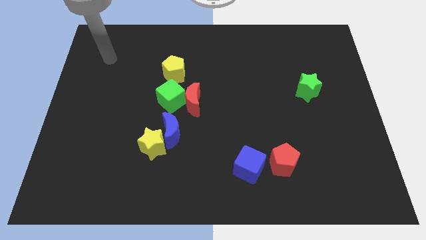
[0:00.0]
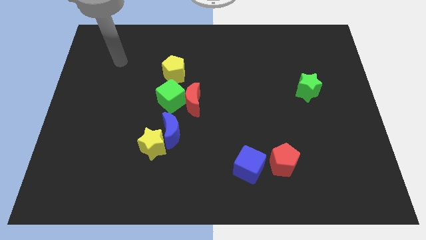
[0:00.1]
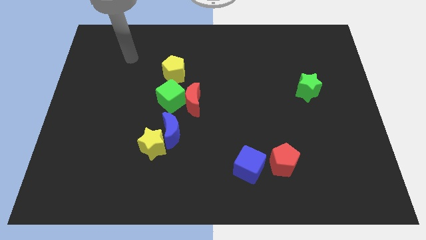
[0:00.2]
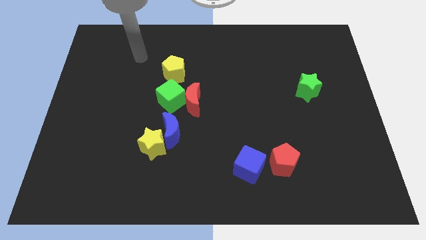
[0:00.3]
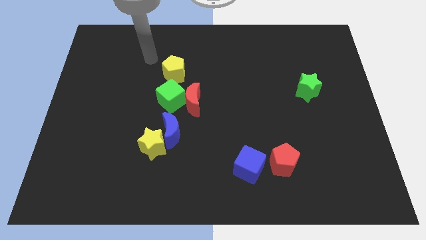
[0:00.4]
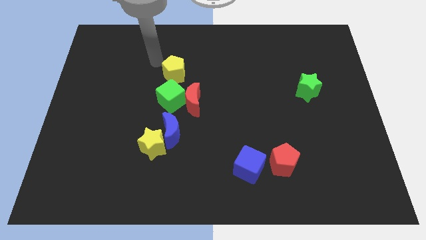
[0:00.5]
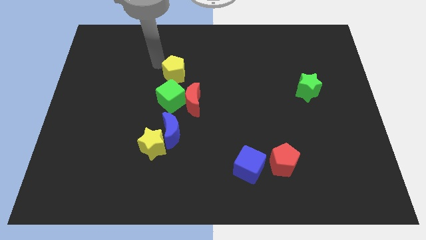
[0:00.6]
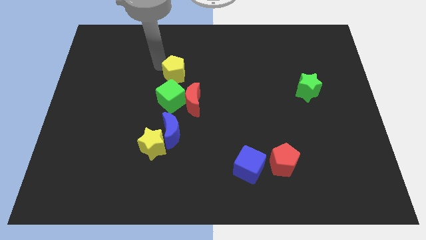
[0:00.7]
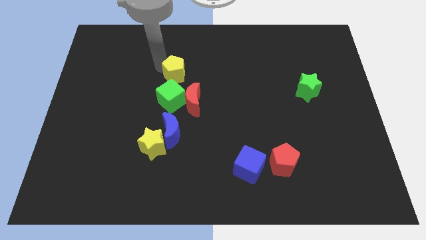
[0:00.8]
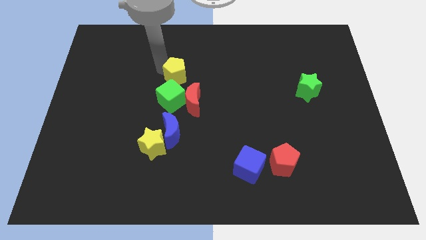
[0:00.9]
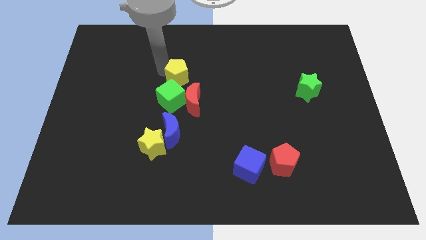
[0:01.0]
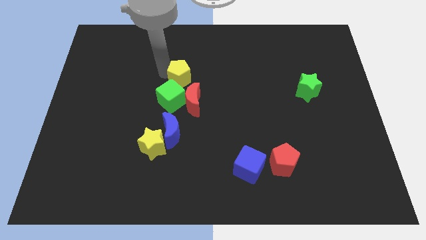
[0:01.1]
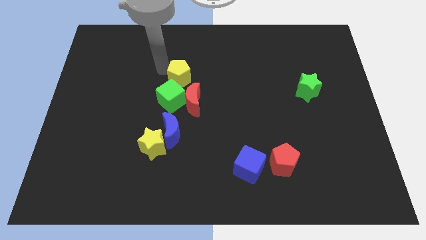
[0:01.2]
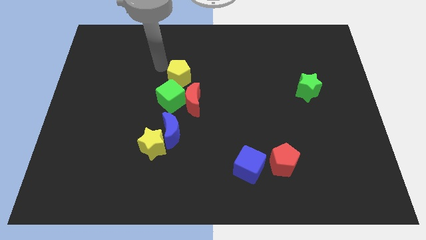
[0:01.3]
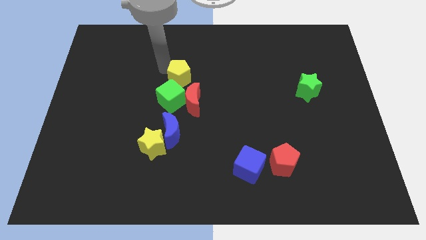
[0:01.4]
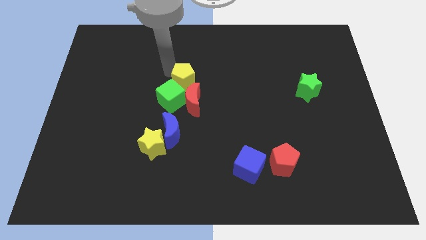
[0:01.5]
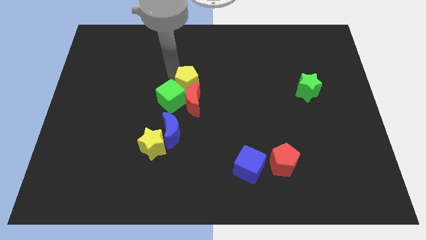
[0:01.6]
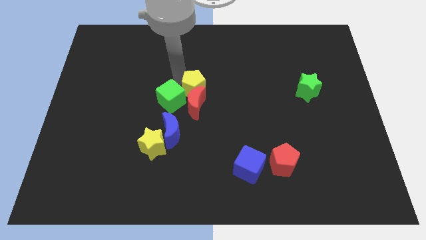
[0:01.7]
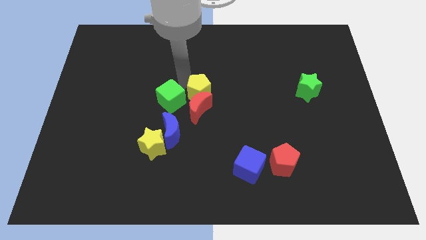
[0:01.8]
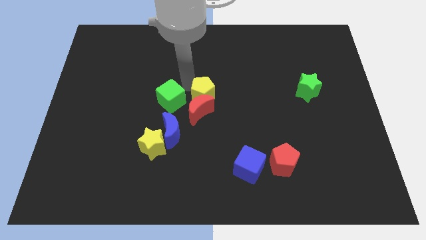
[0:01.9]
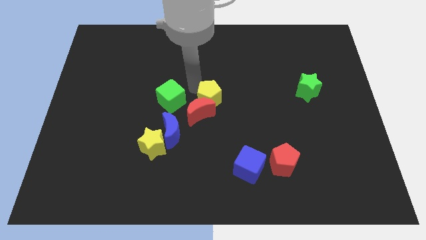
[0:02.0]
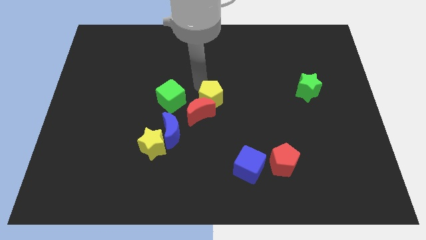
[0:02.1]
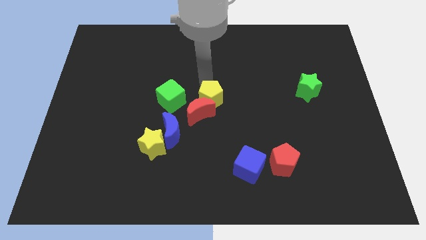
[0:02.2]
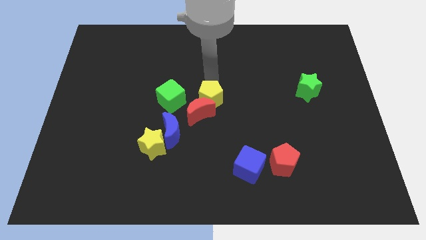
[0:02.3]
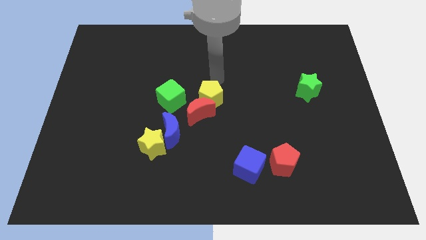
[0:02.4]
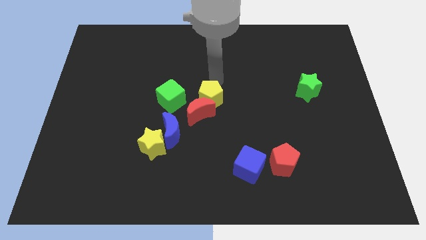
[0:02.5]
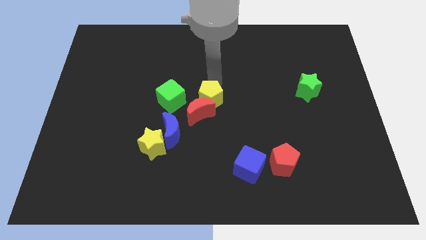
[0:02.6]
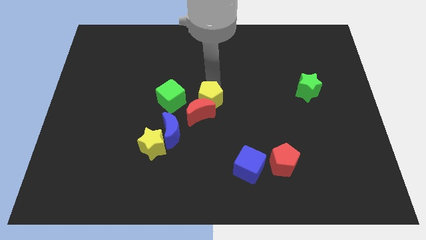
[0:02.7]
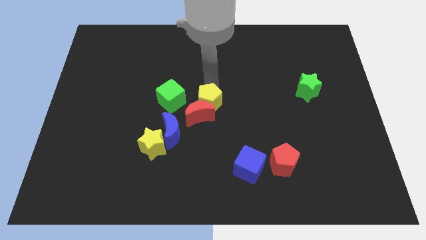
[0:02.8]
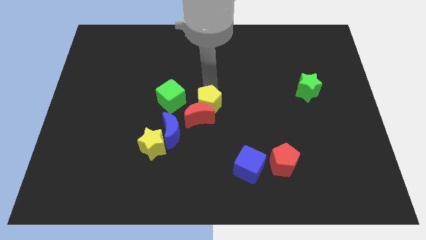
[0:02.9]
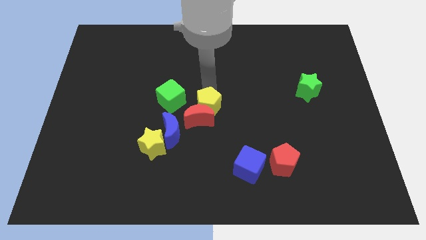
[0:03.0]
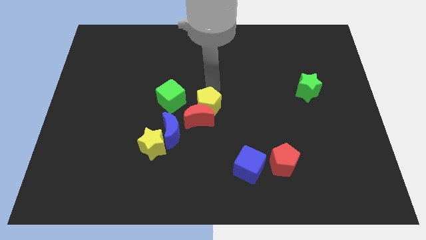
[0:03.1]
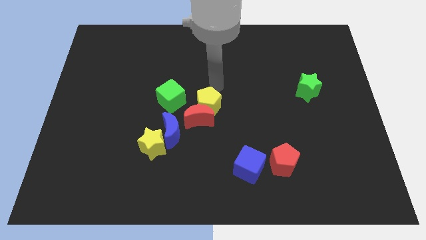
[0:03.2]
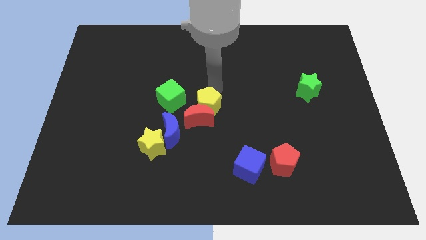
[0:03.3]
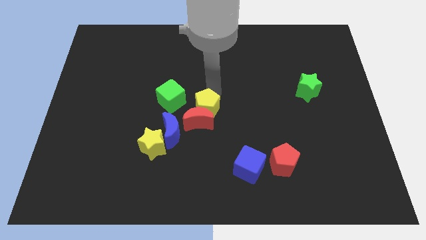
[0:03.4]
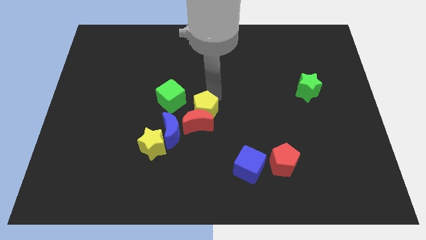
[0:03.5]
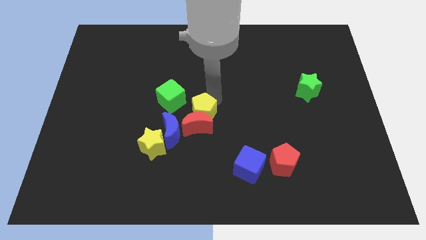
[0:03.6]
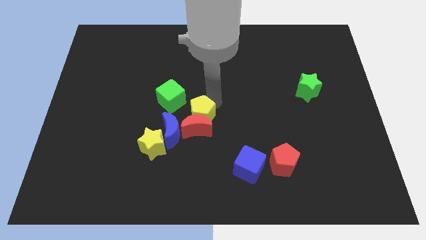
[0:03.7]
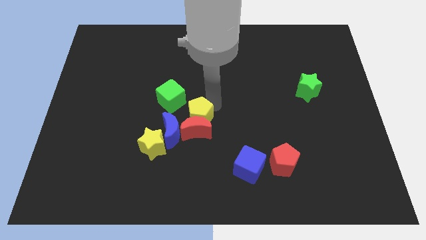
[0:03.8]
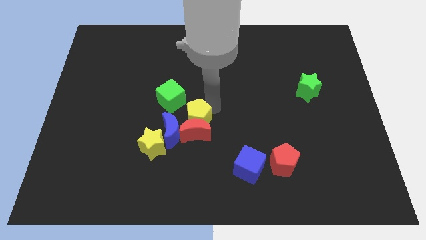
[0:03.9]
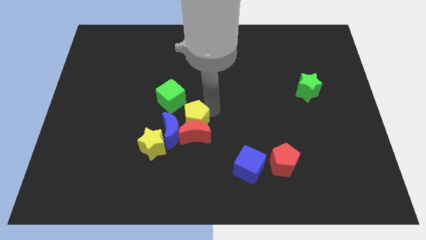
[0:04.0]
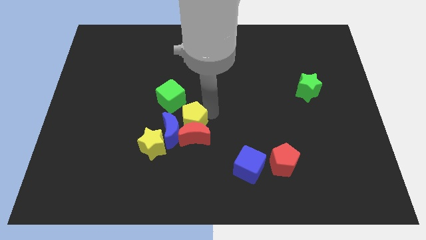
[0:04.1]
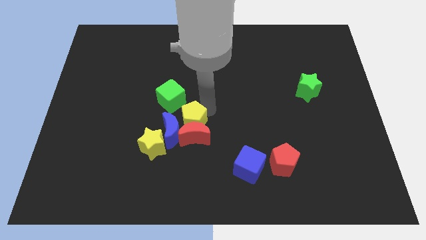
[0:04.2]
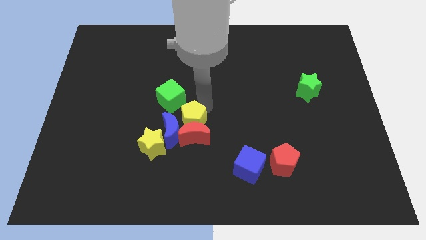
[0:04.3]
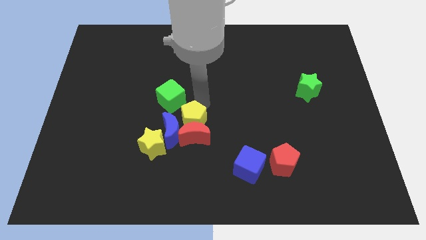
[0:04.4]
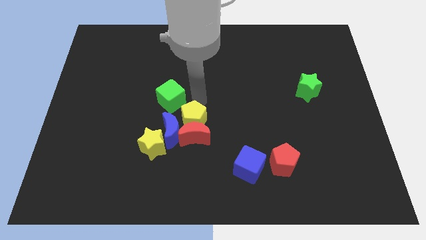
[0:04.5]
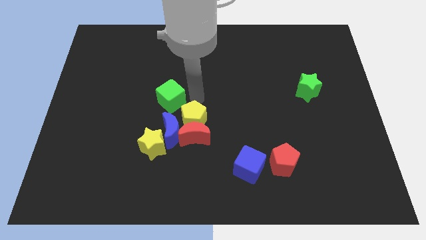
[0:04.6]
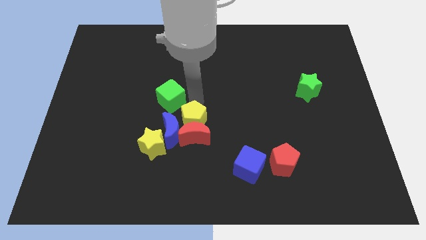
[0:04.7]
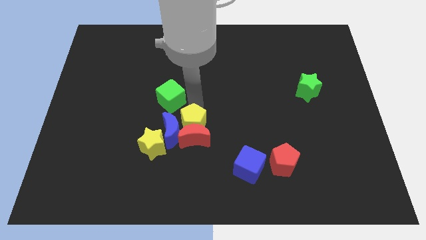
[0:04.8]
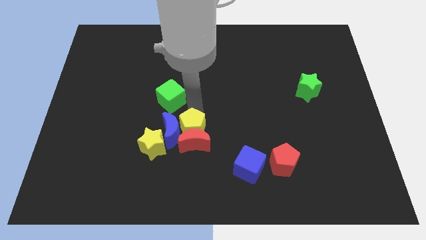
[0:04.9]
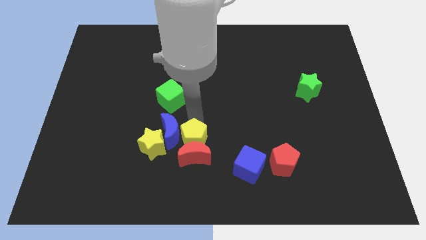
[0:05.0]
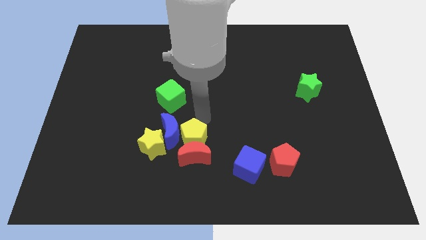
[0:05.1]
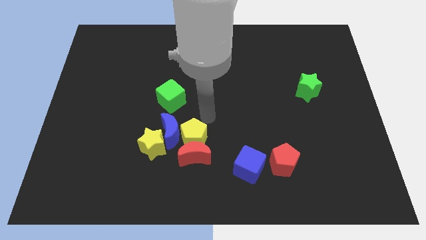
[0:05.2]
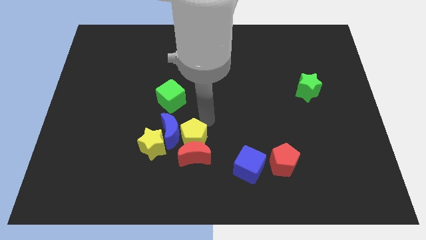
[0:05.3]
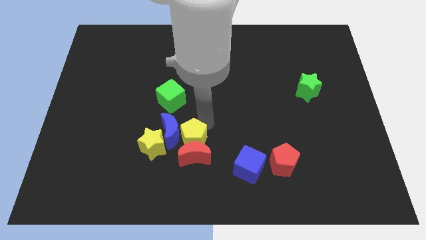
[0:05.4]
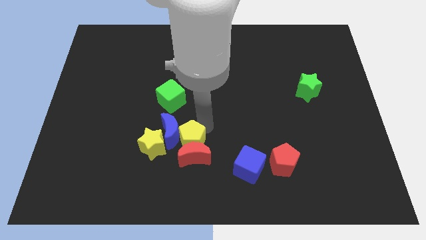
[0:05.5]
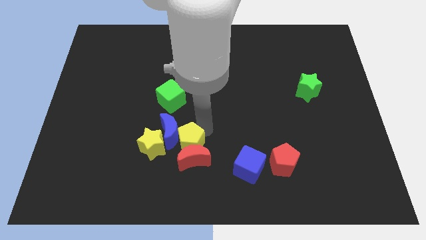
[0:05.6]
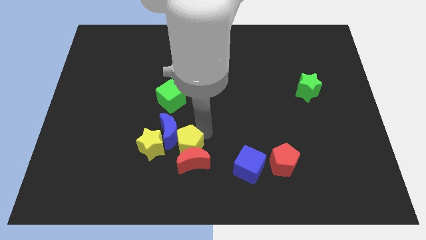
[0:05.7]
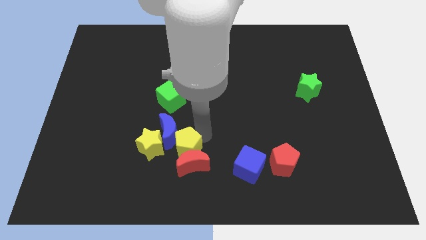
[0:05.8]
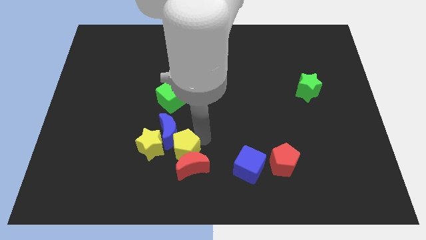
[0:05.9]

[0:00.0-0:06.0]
move the yellow pentagon to the bottom right of the yellow star
